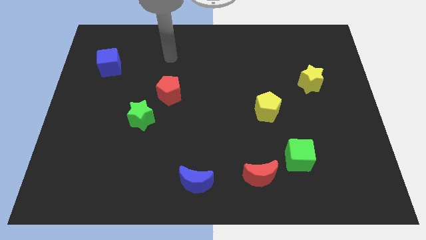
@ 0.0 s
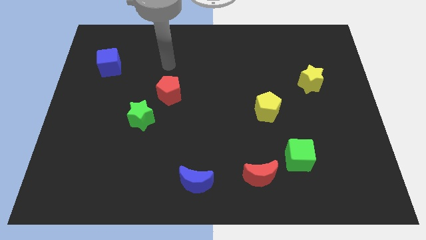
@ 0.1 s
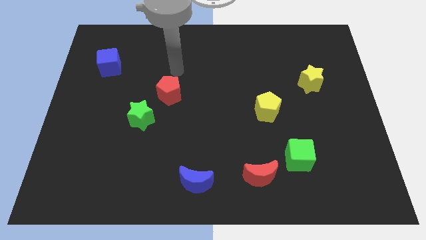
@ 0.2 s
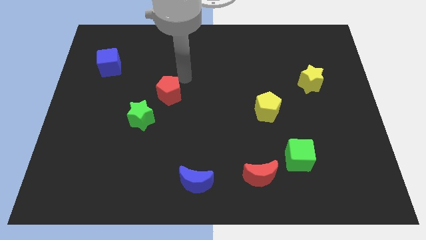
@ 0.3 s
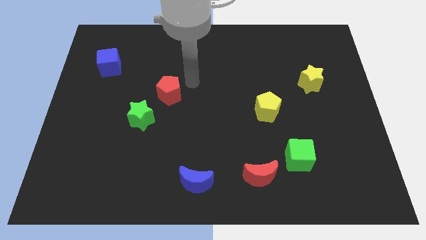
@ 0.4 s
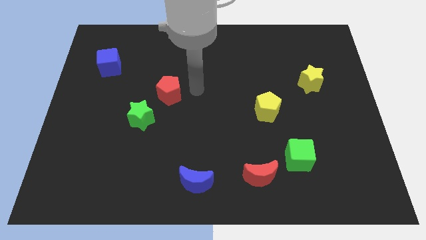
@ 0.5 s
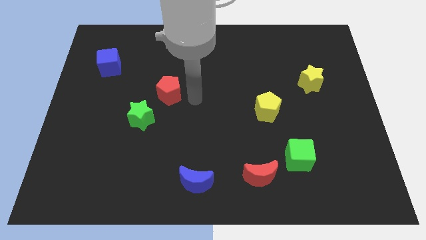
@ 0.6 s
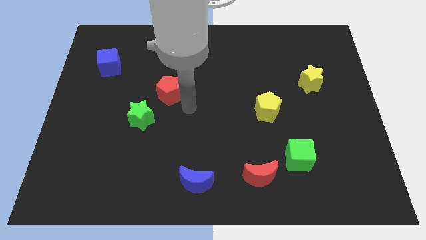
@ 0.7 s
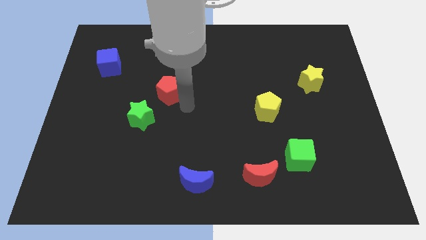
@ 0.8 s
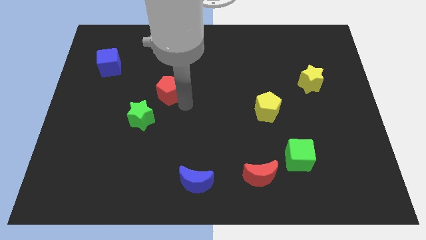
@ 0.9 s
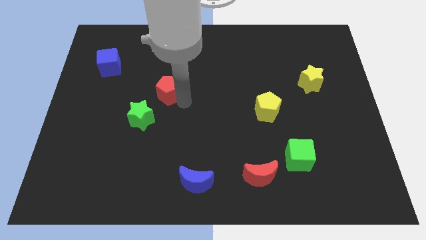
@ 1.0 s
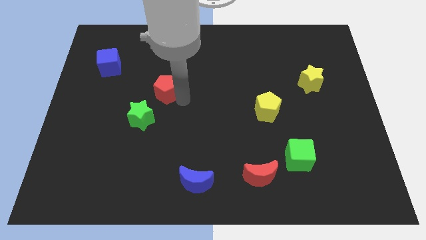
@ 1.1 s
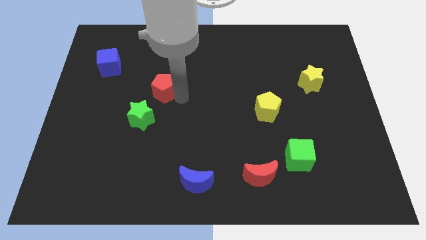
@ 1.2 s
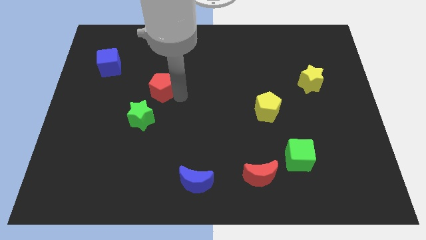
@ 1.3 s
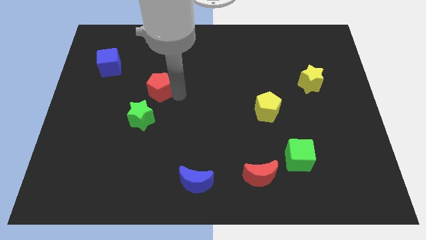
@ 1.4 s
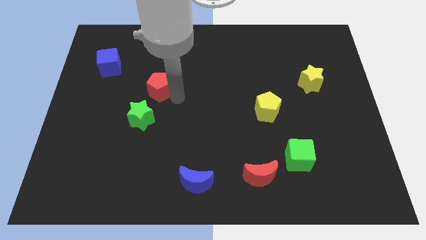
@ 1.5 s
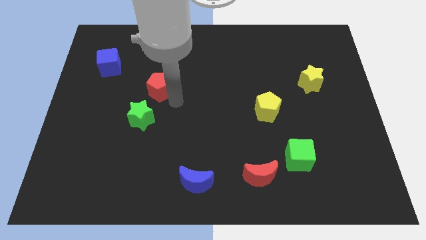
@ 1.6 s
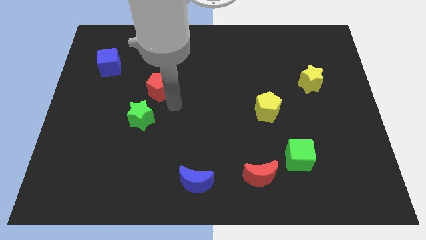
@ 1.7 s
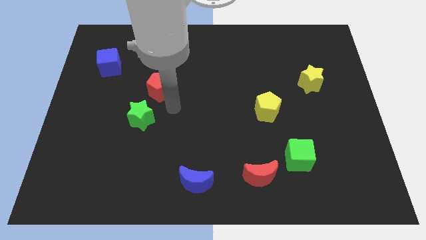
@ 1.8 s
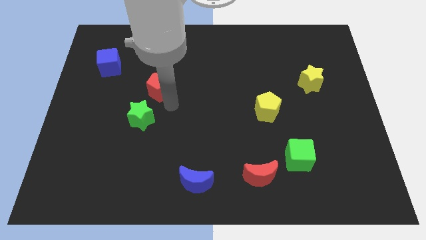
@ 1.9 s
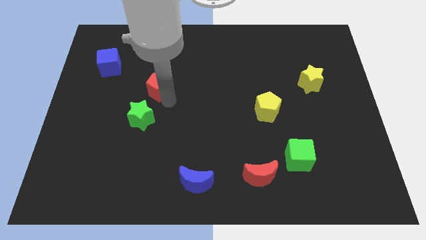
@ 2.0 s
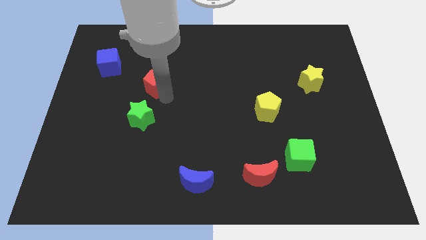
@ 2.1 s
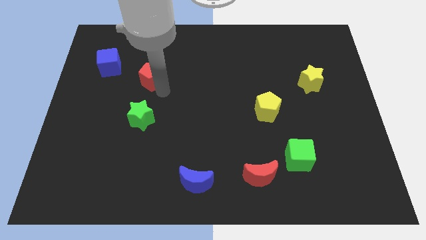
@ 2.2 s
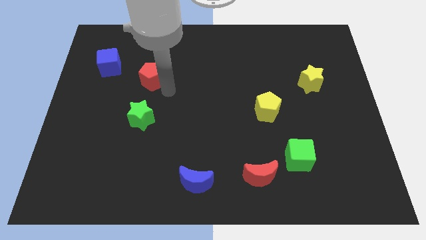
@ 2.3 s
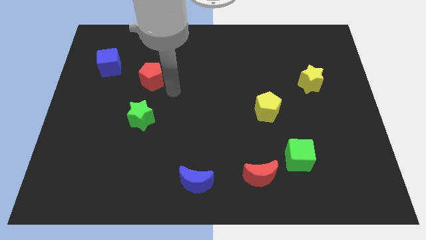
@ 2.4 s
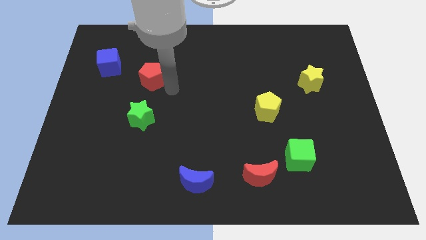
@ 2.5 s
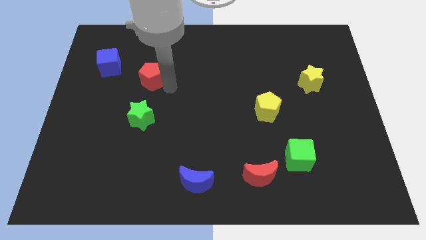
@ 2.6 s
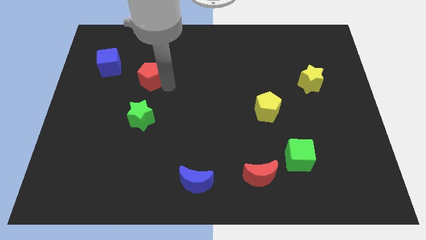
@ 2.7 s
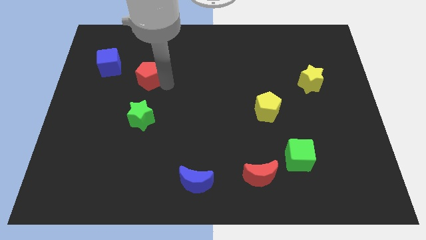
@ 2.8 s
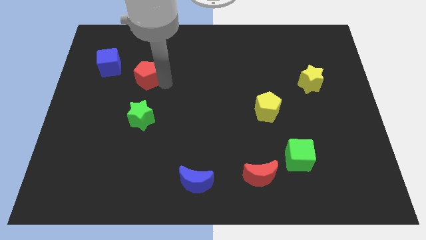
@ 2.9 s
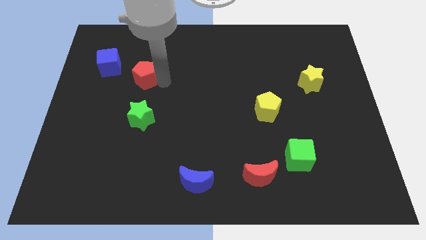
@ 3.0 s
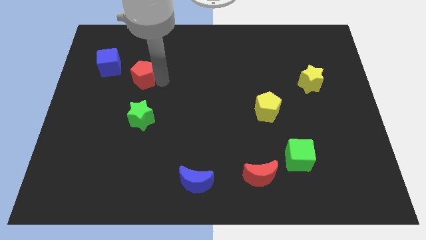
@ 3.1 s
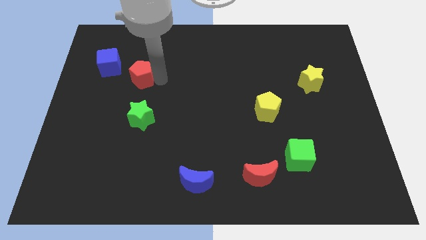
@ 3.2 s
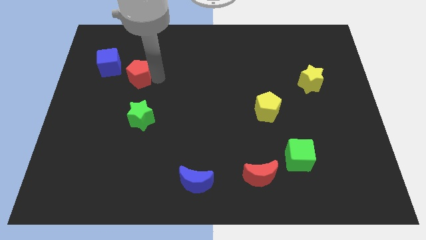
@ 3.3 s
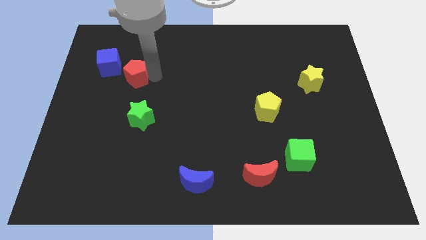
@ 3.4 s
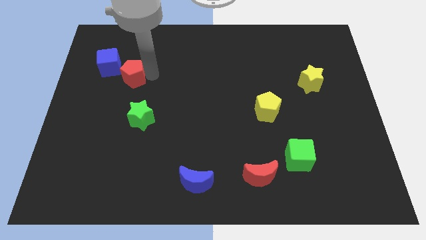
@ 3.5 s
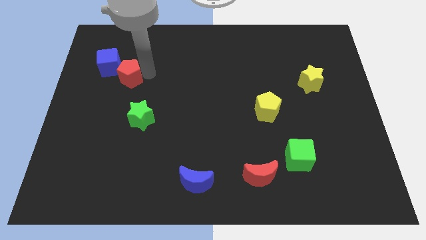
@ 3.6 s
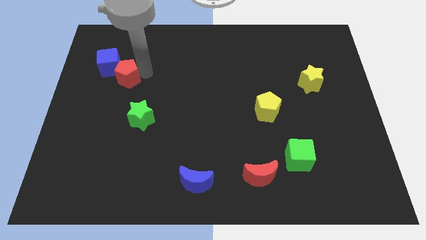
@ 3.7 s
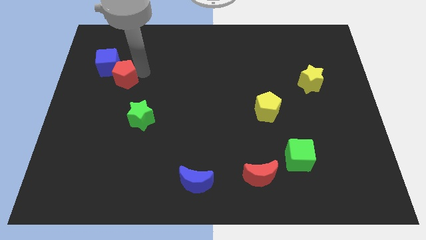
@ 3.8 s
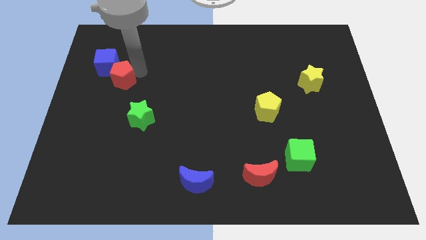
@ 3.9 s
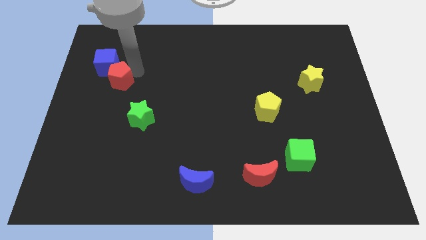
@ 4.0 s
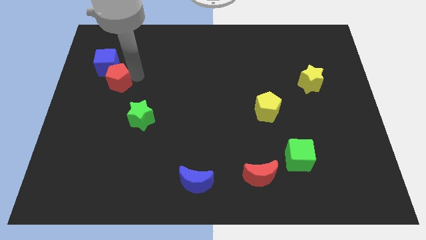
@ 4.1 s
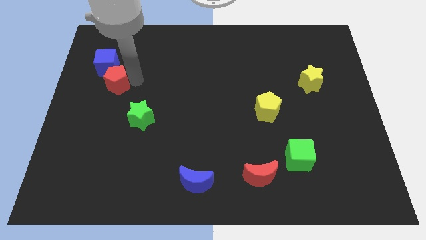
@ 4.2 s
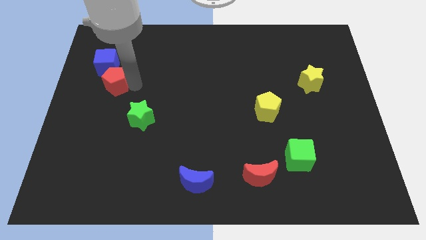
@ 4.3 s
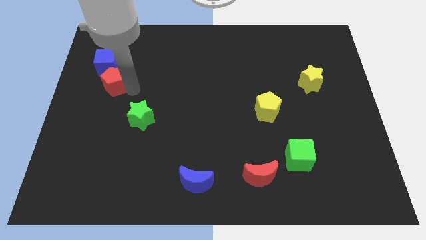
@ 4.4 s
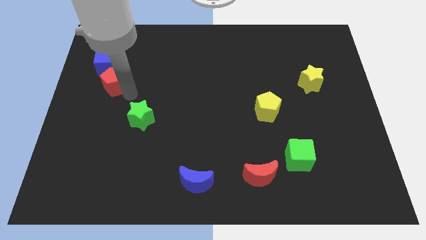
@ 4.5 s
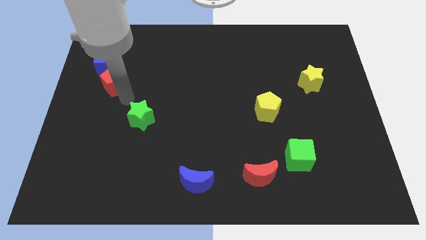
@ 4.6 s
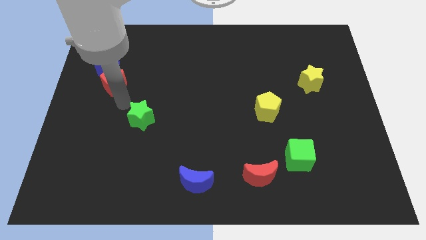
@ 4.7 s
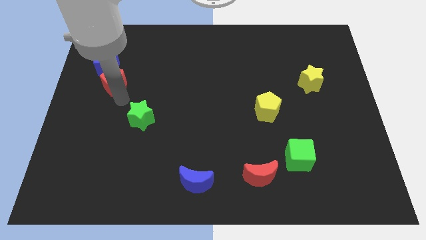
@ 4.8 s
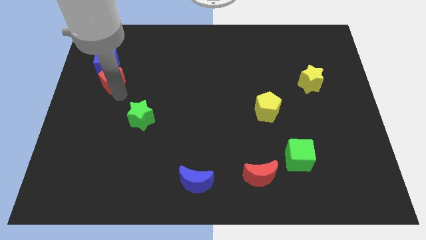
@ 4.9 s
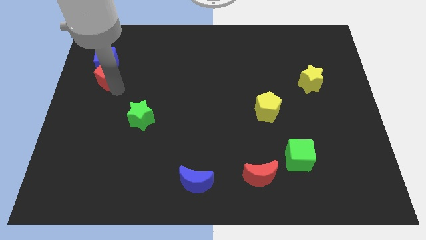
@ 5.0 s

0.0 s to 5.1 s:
put the red pentagon next to the blue cube

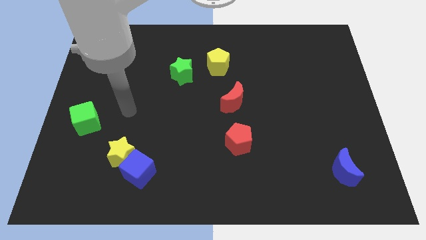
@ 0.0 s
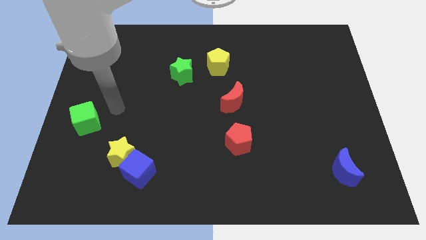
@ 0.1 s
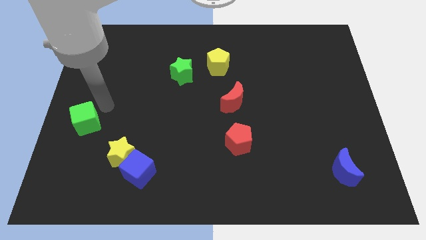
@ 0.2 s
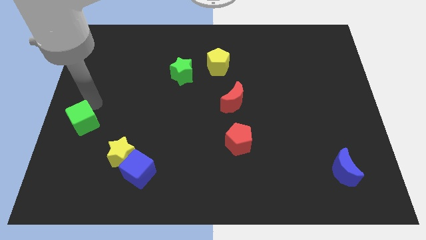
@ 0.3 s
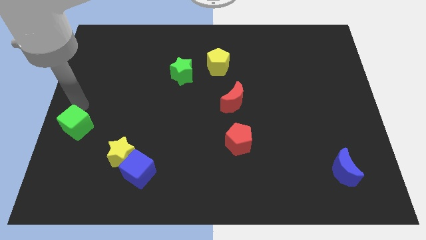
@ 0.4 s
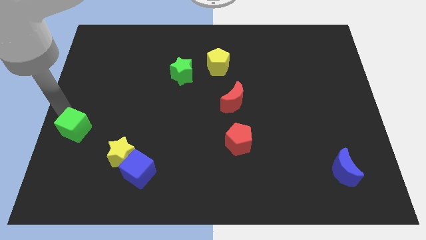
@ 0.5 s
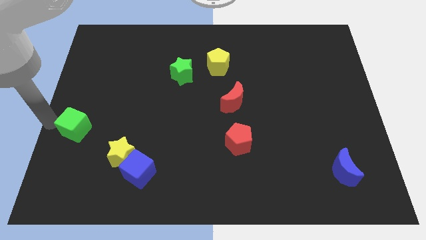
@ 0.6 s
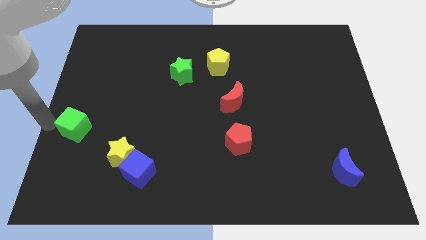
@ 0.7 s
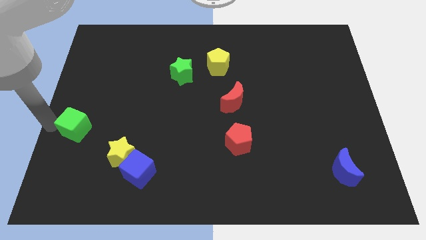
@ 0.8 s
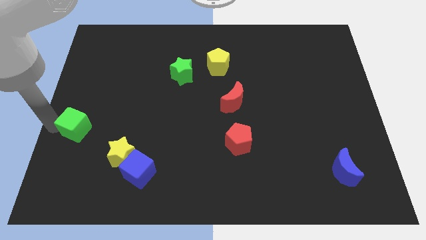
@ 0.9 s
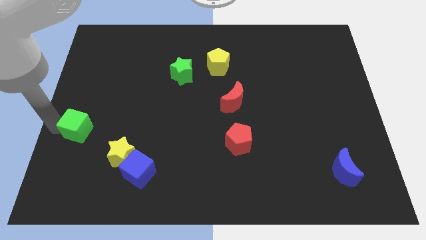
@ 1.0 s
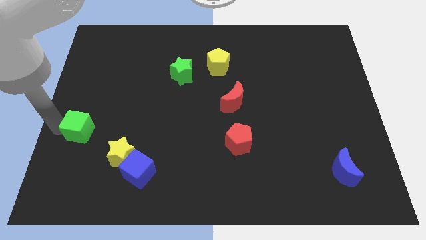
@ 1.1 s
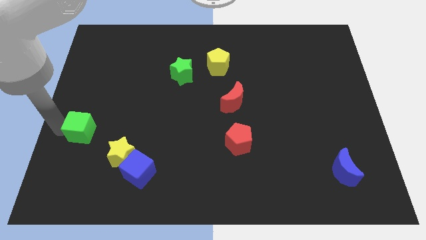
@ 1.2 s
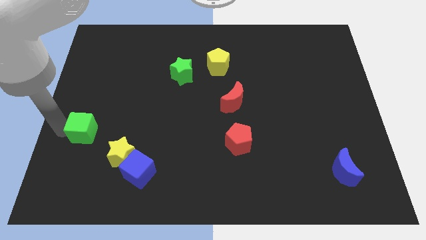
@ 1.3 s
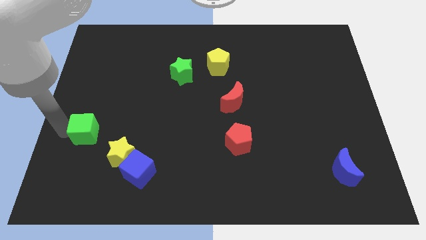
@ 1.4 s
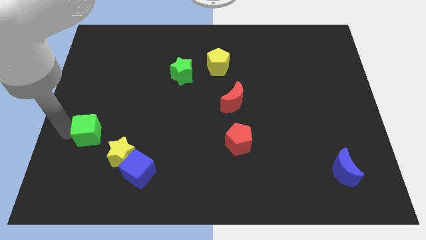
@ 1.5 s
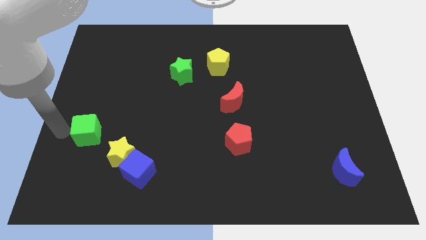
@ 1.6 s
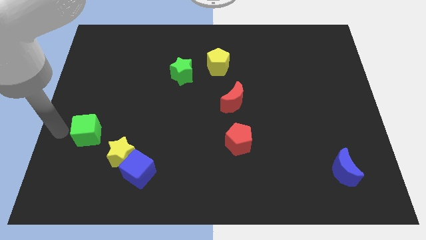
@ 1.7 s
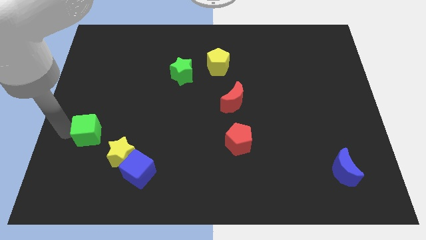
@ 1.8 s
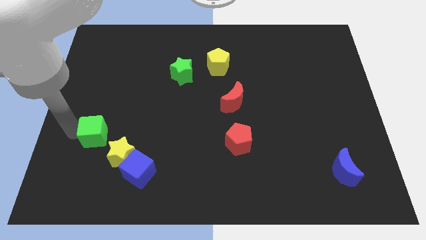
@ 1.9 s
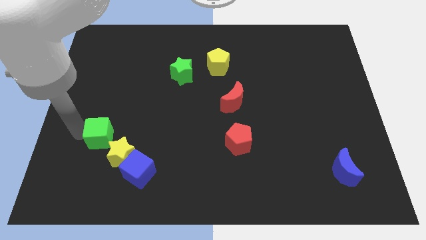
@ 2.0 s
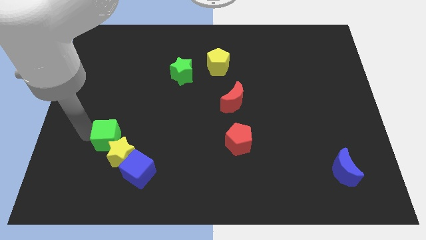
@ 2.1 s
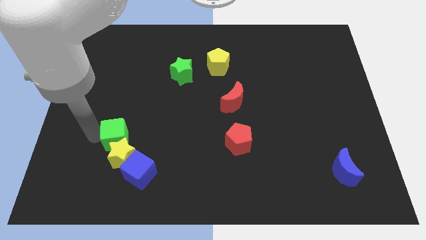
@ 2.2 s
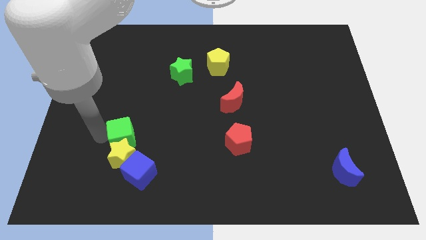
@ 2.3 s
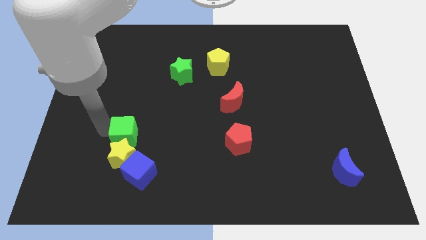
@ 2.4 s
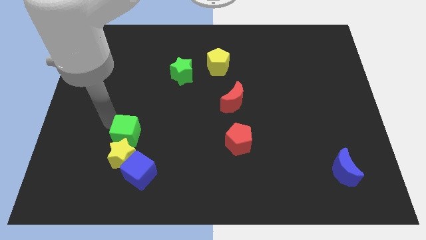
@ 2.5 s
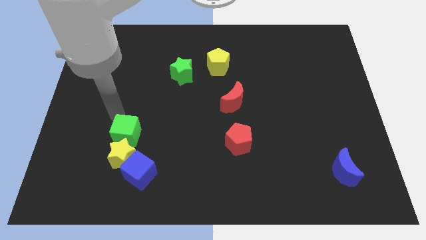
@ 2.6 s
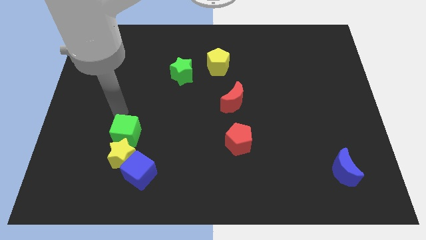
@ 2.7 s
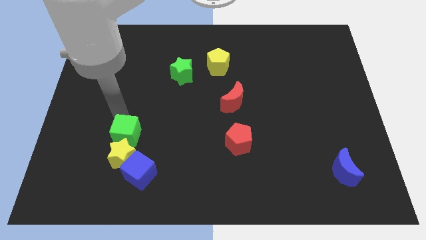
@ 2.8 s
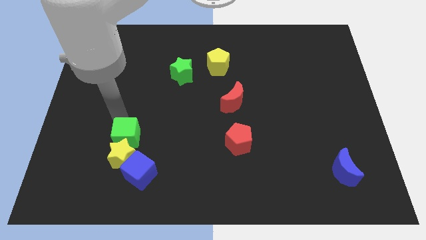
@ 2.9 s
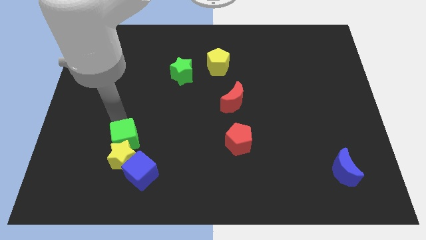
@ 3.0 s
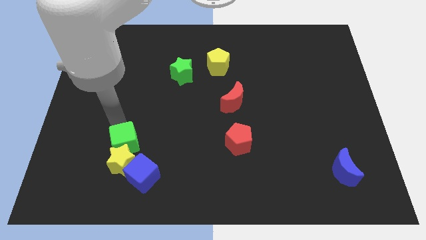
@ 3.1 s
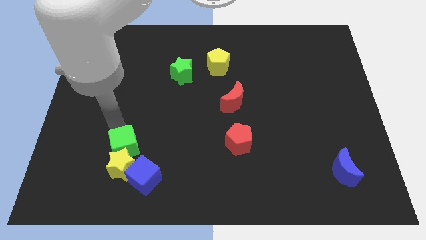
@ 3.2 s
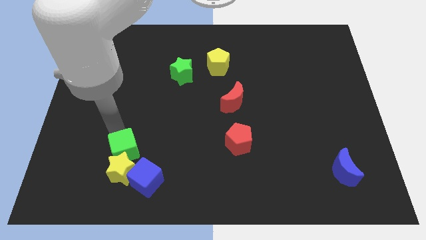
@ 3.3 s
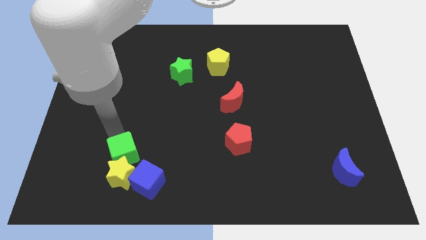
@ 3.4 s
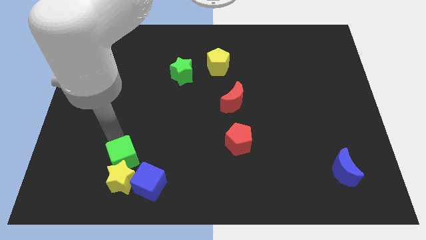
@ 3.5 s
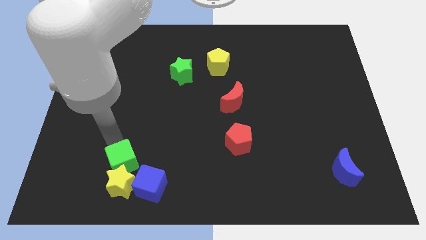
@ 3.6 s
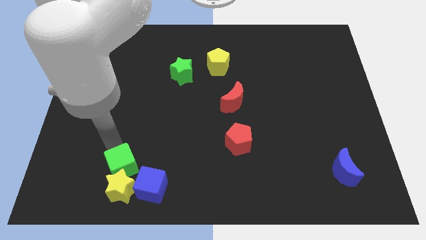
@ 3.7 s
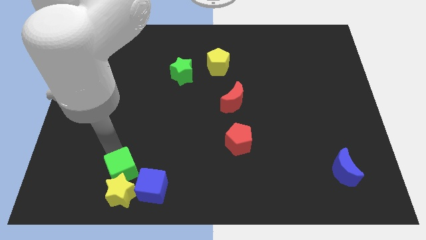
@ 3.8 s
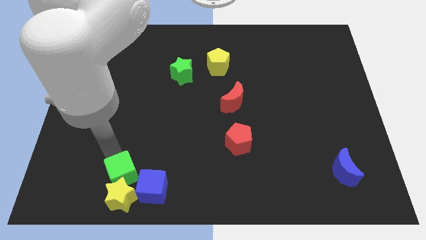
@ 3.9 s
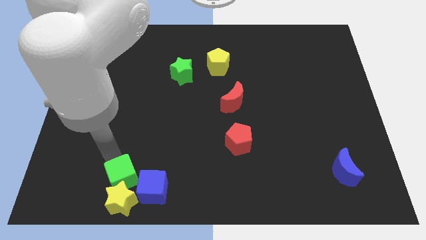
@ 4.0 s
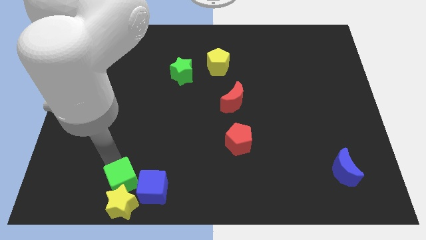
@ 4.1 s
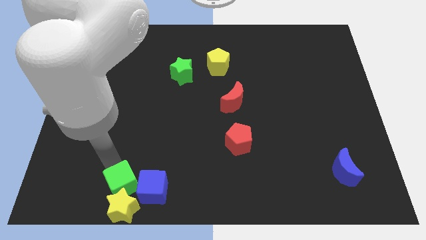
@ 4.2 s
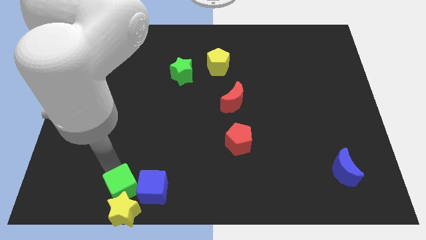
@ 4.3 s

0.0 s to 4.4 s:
put the green cube to the blue cube
